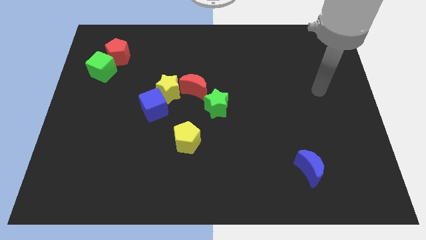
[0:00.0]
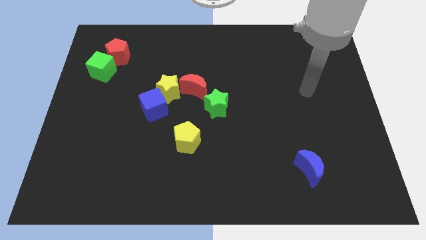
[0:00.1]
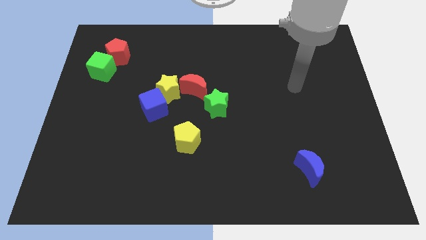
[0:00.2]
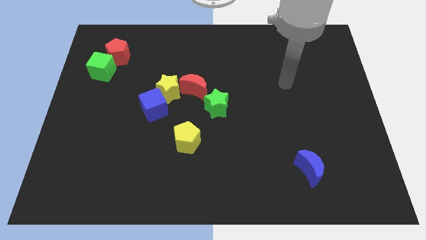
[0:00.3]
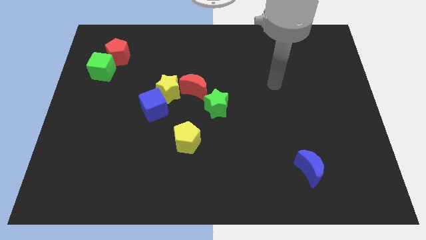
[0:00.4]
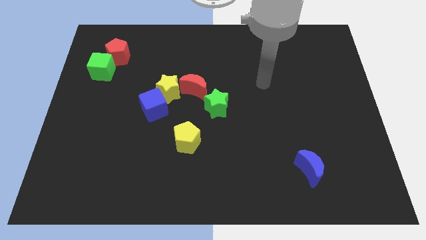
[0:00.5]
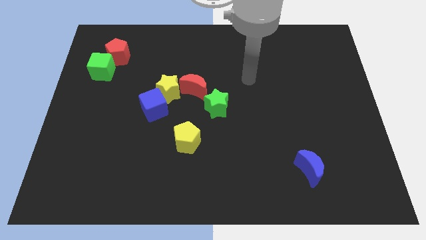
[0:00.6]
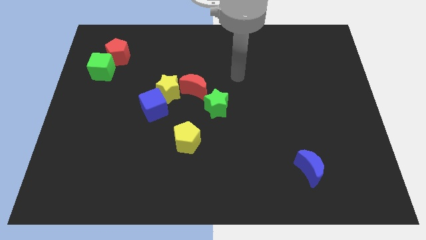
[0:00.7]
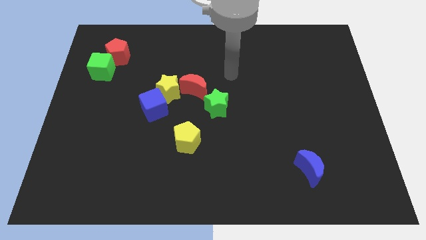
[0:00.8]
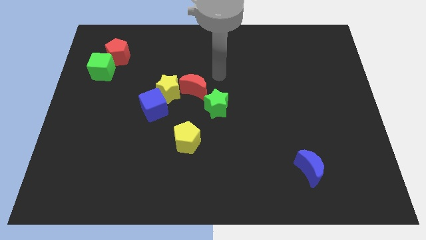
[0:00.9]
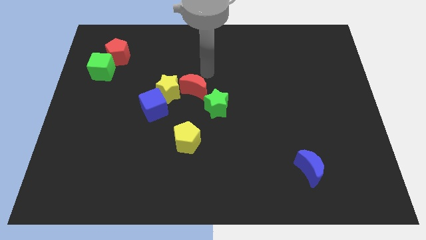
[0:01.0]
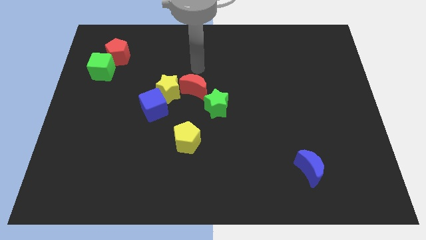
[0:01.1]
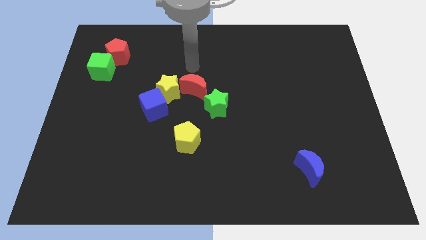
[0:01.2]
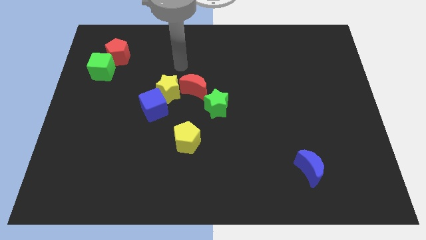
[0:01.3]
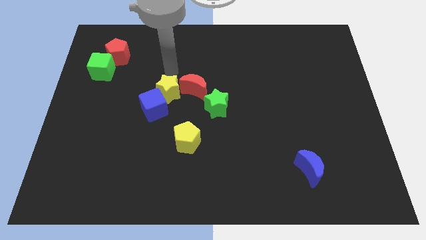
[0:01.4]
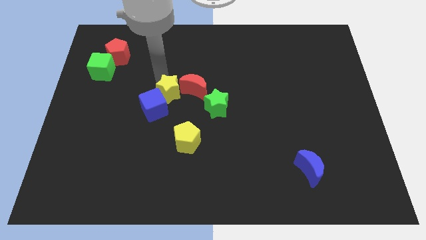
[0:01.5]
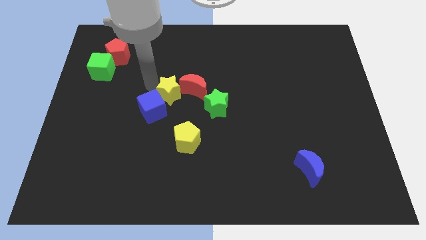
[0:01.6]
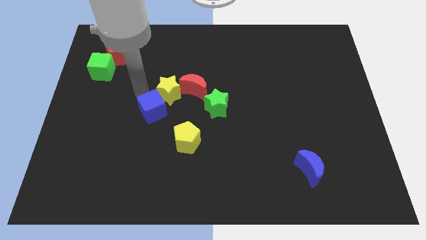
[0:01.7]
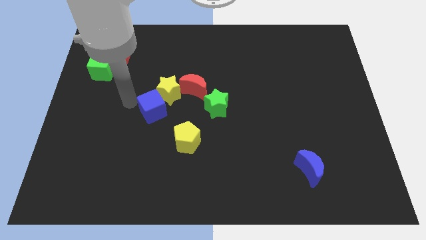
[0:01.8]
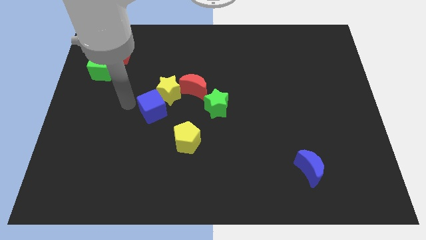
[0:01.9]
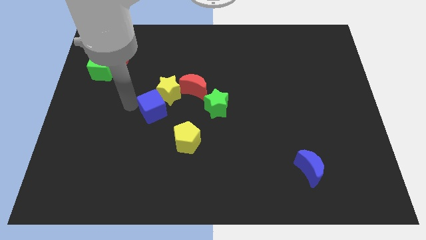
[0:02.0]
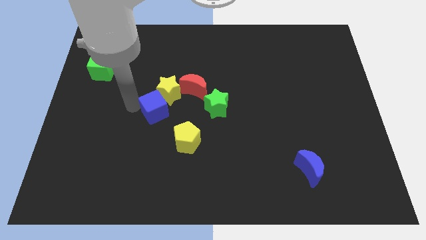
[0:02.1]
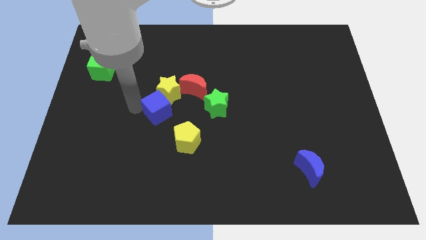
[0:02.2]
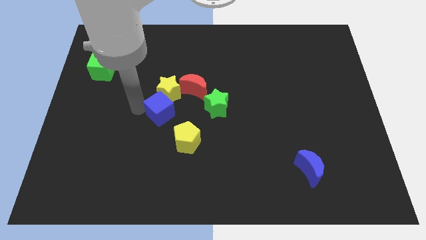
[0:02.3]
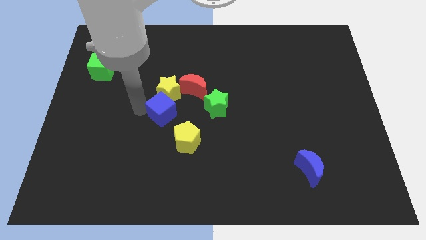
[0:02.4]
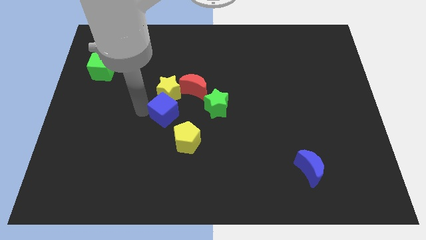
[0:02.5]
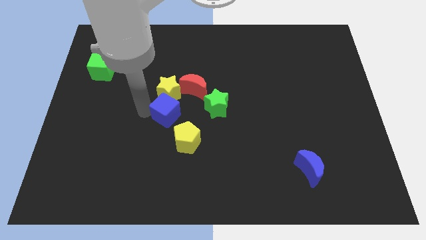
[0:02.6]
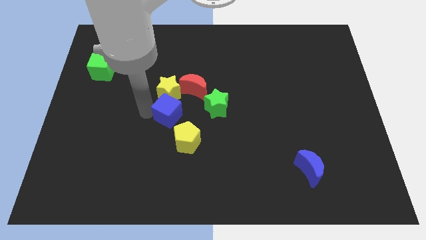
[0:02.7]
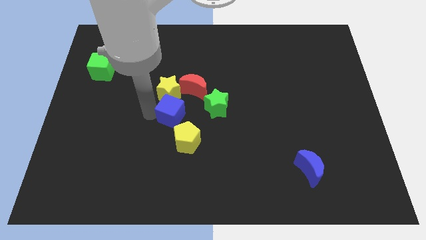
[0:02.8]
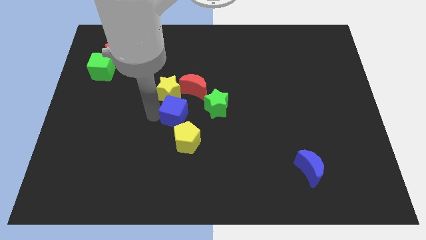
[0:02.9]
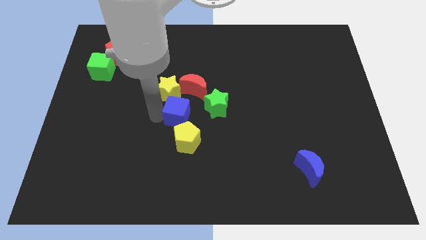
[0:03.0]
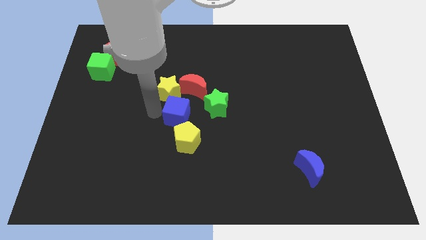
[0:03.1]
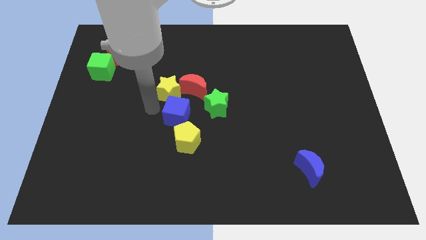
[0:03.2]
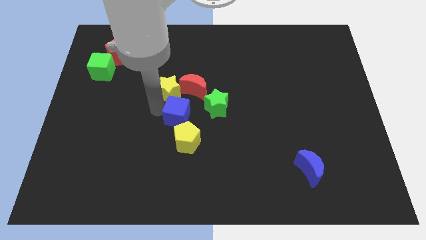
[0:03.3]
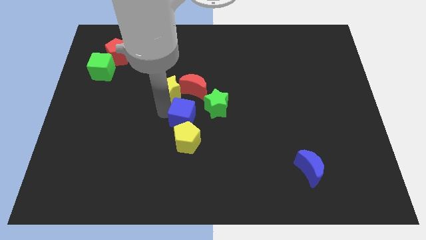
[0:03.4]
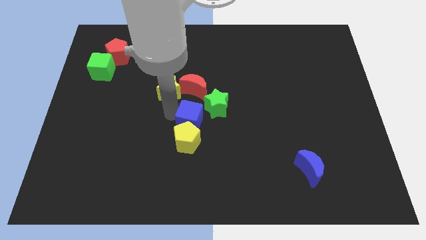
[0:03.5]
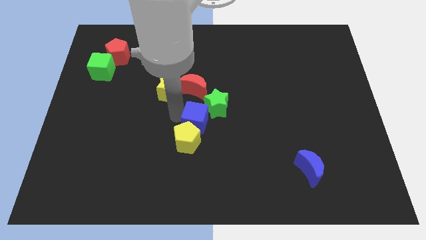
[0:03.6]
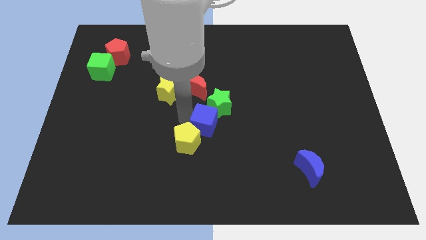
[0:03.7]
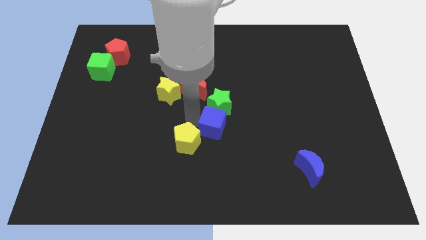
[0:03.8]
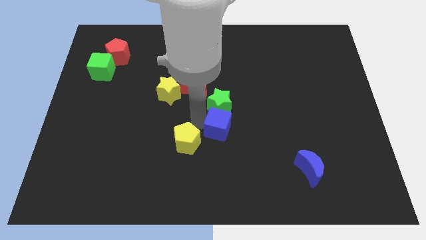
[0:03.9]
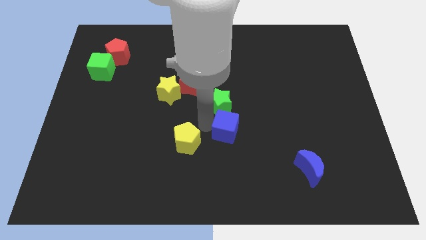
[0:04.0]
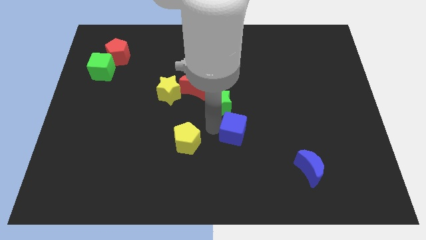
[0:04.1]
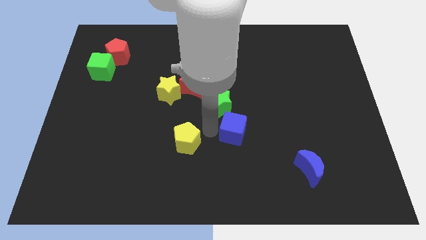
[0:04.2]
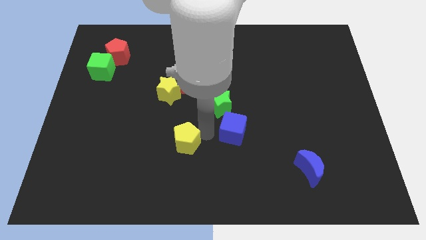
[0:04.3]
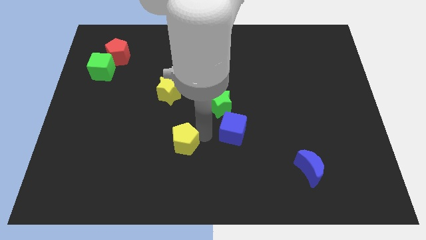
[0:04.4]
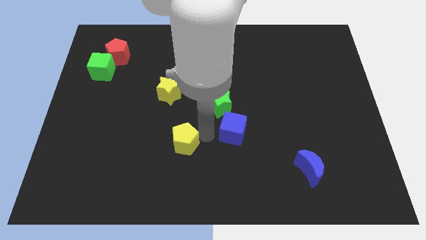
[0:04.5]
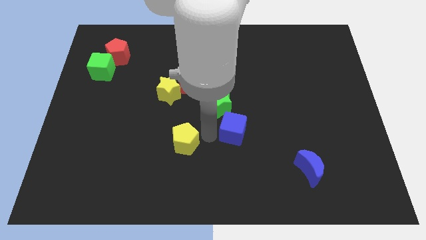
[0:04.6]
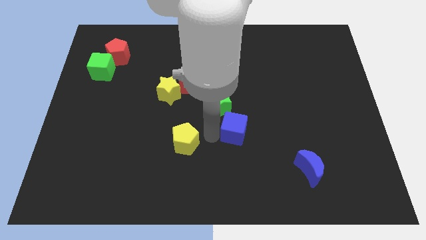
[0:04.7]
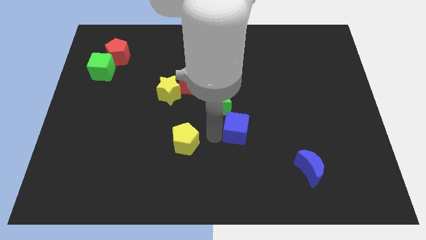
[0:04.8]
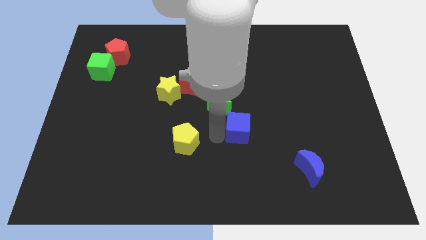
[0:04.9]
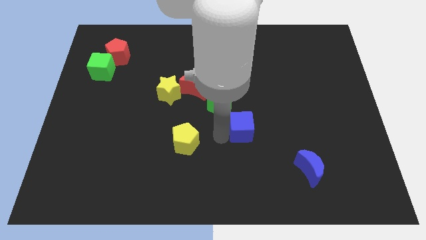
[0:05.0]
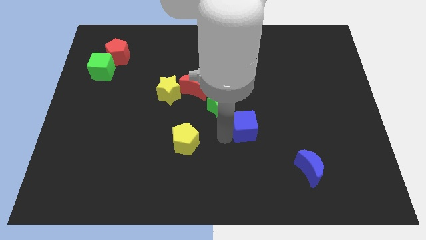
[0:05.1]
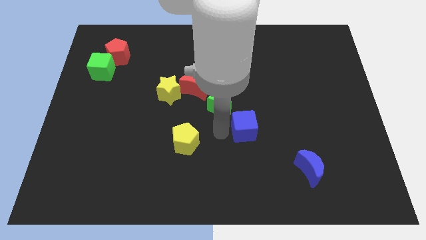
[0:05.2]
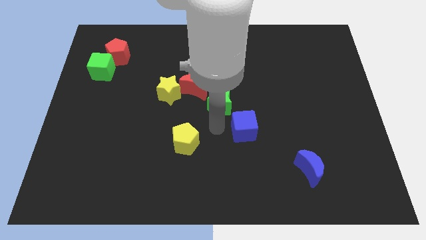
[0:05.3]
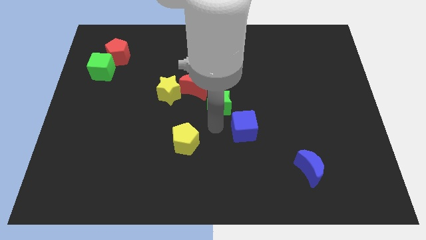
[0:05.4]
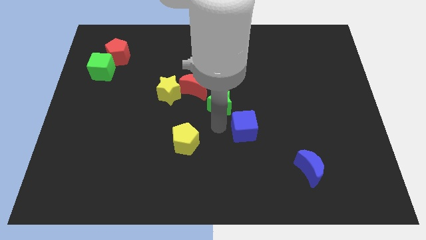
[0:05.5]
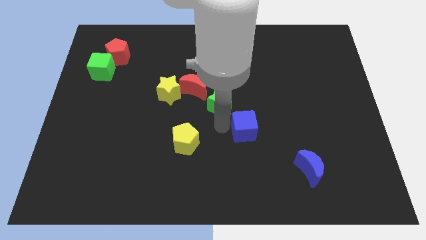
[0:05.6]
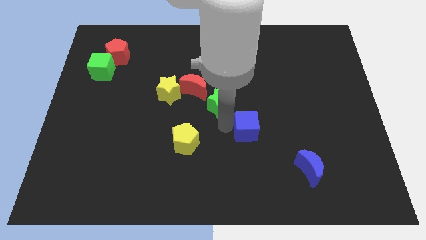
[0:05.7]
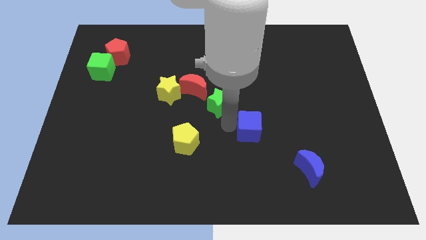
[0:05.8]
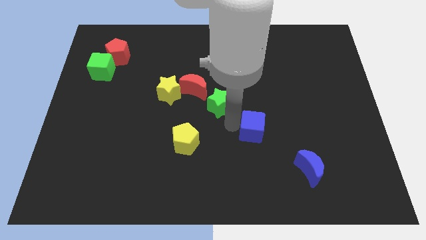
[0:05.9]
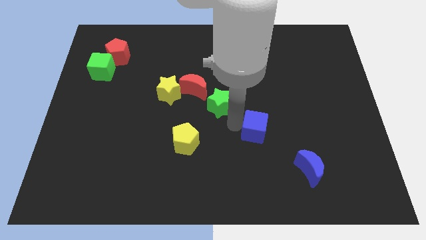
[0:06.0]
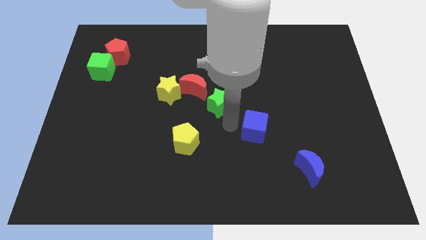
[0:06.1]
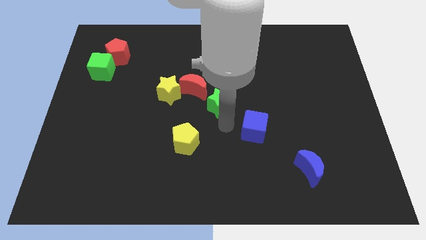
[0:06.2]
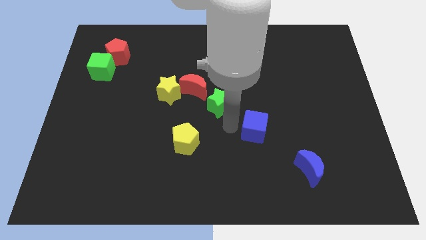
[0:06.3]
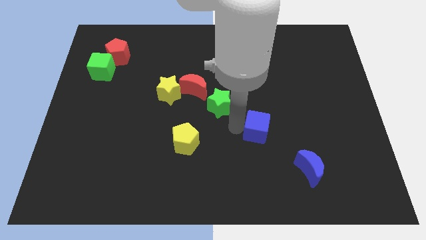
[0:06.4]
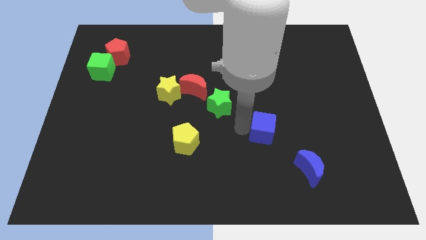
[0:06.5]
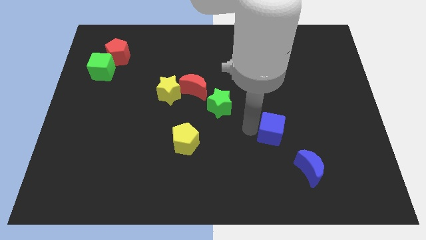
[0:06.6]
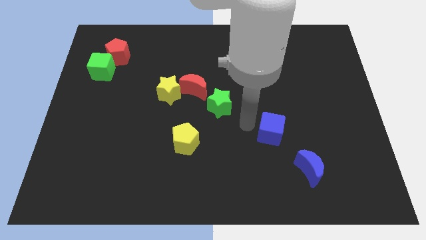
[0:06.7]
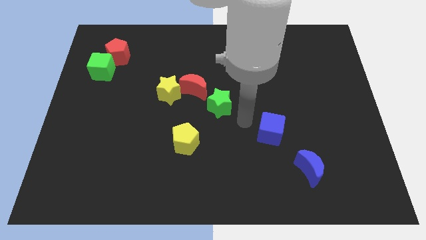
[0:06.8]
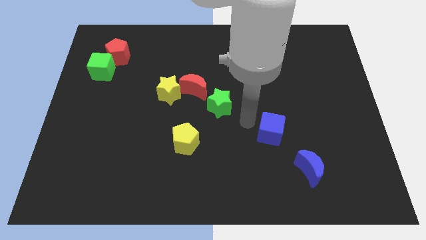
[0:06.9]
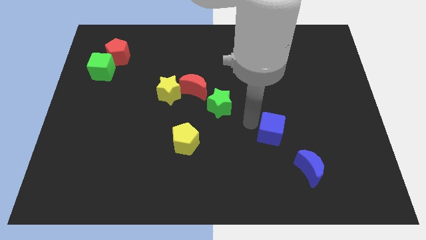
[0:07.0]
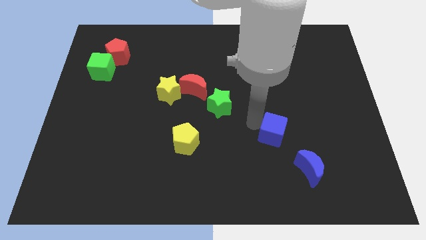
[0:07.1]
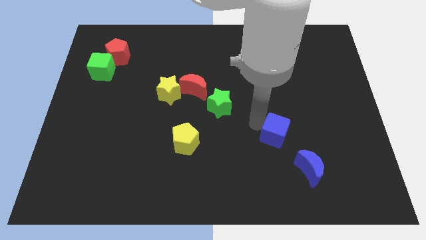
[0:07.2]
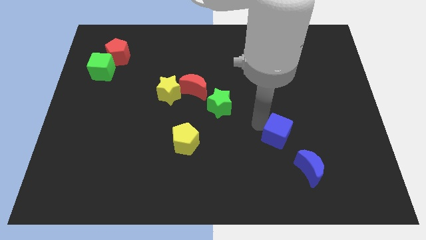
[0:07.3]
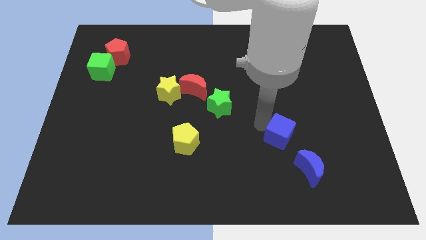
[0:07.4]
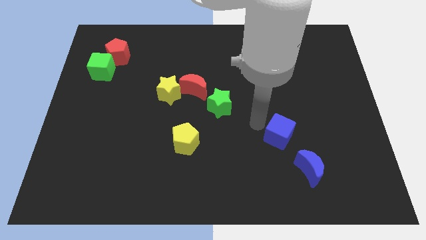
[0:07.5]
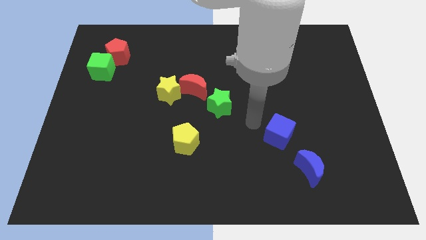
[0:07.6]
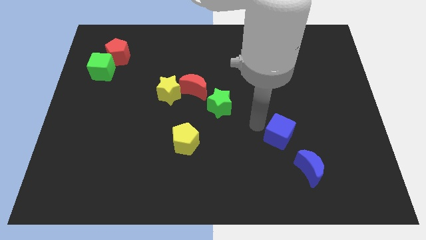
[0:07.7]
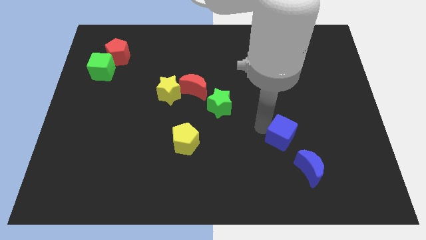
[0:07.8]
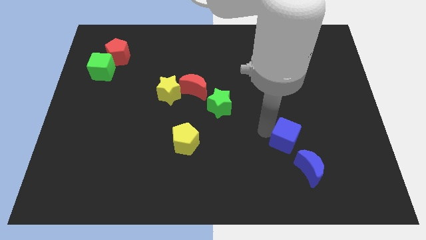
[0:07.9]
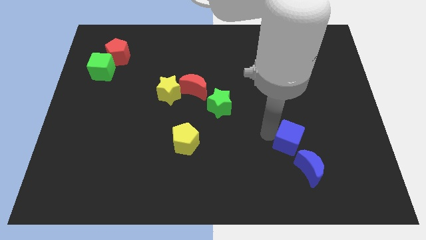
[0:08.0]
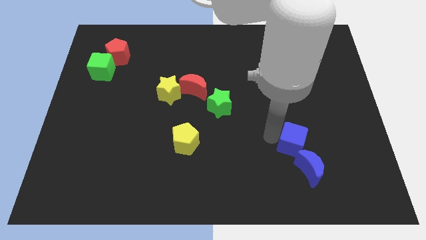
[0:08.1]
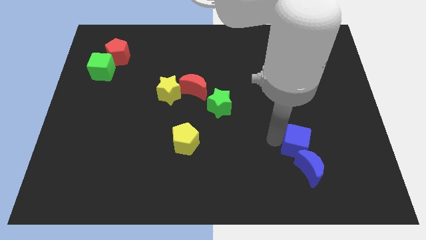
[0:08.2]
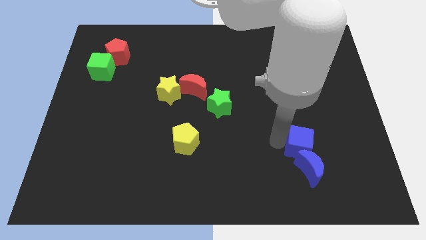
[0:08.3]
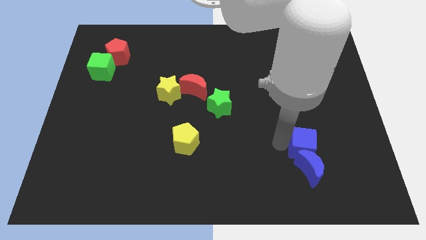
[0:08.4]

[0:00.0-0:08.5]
put the blue cube diagonally up and to the right of the blue moon
